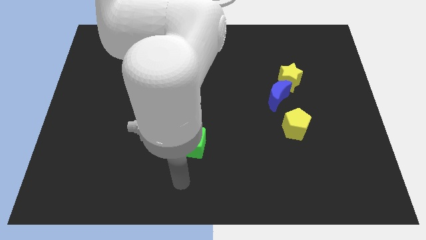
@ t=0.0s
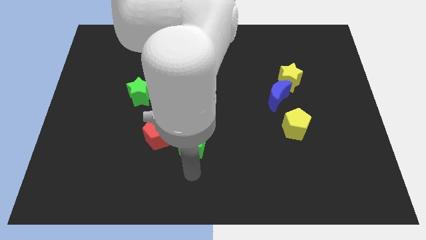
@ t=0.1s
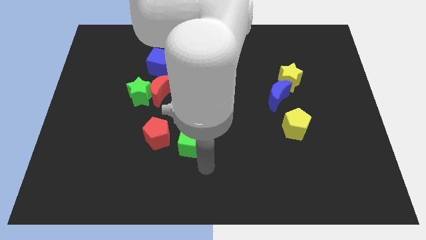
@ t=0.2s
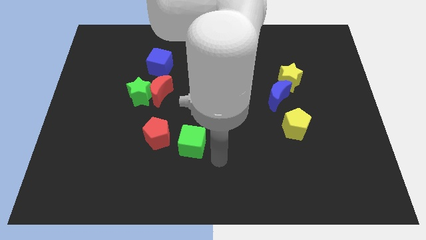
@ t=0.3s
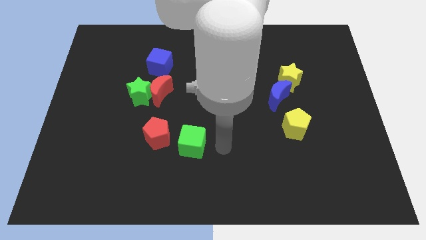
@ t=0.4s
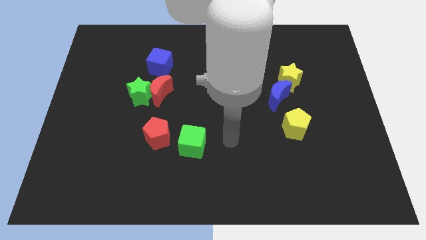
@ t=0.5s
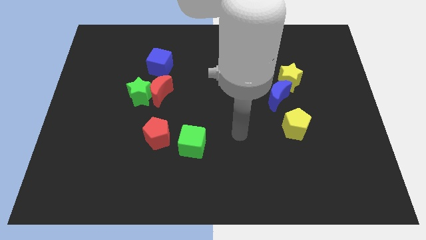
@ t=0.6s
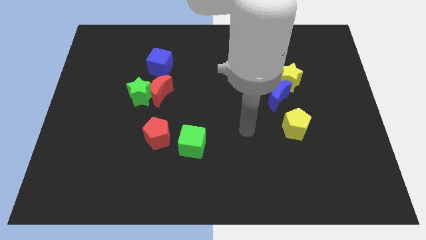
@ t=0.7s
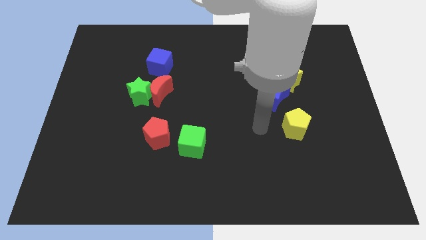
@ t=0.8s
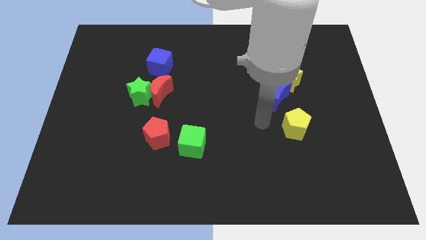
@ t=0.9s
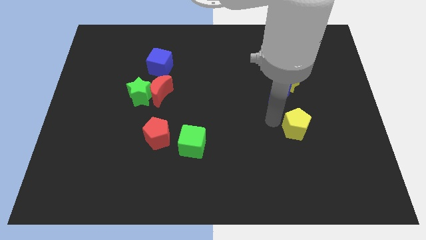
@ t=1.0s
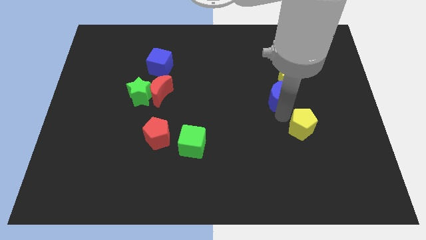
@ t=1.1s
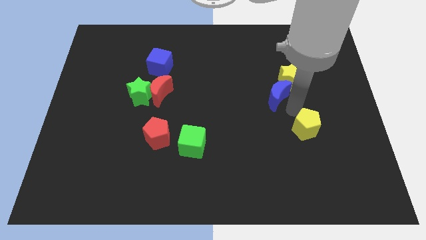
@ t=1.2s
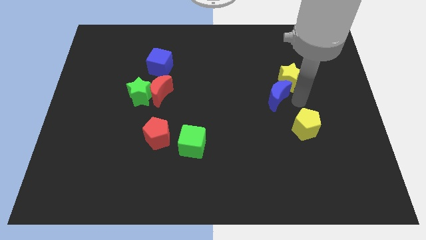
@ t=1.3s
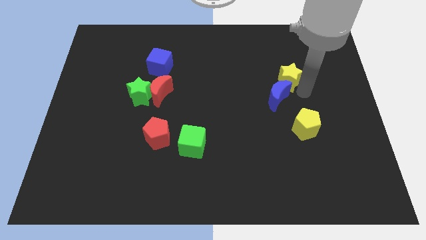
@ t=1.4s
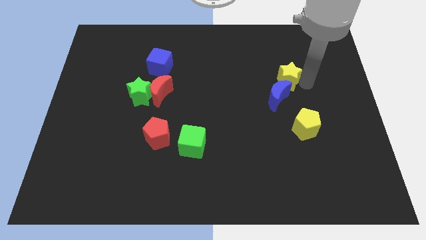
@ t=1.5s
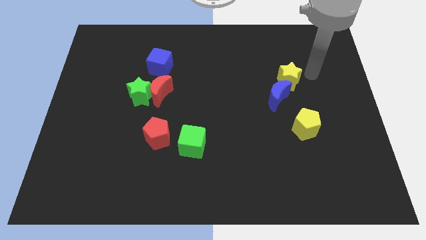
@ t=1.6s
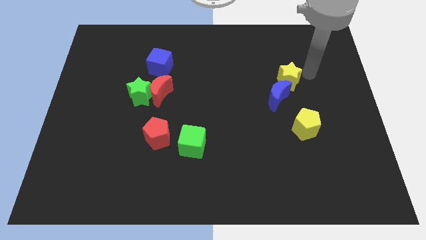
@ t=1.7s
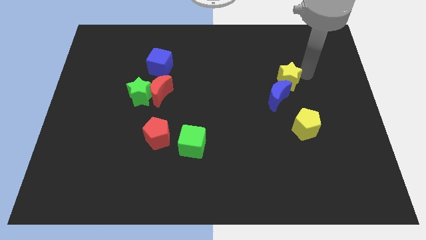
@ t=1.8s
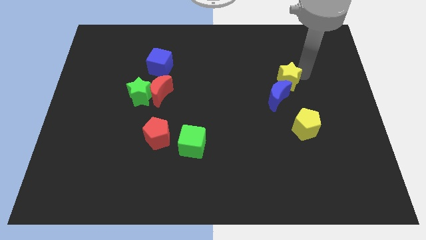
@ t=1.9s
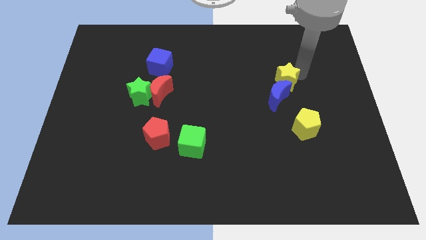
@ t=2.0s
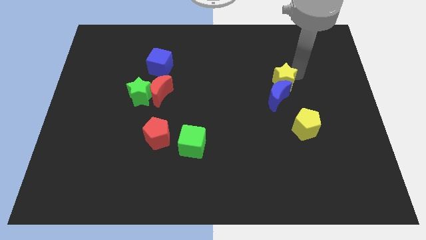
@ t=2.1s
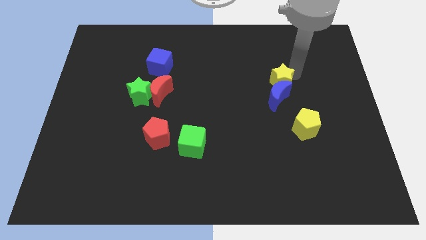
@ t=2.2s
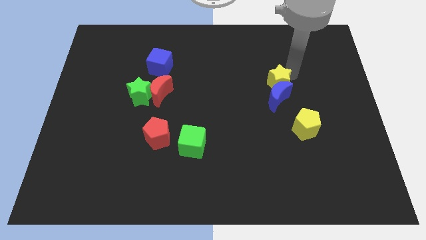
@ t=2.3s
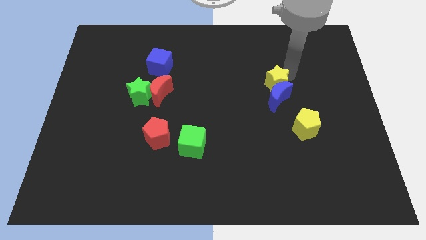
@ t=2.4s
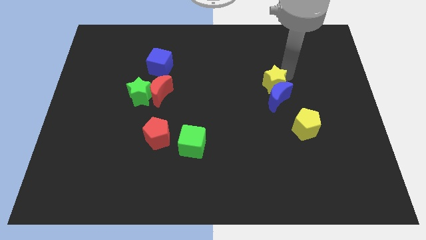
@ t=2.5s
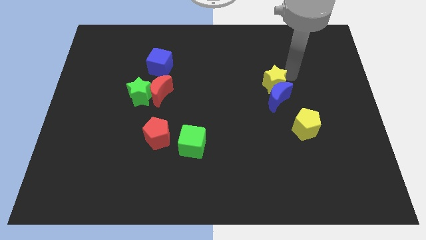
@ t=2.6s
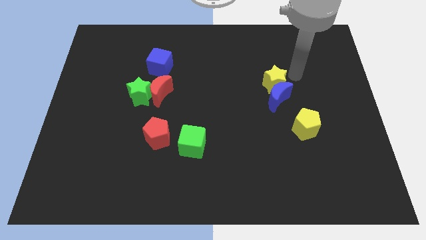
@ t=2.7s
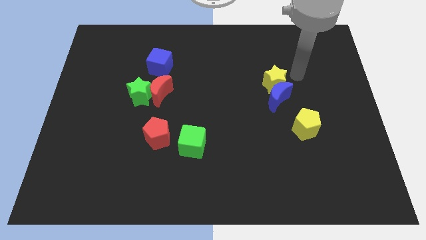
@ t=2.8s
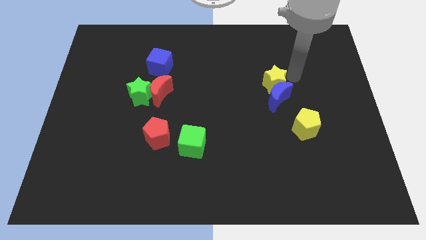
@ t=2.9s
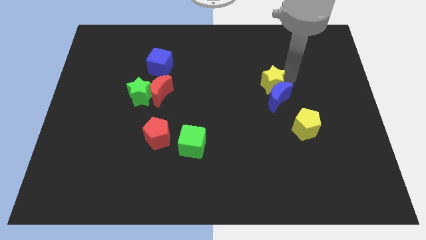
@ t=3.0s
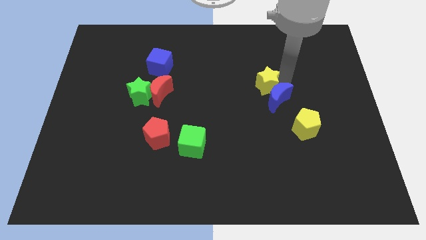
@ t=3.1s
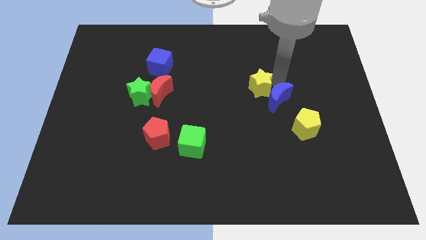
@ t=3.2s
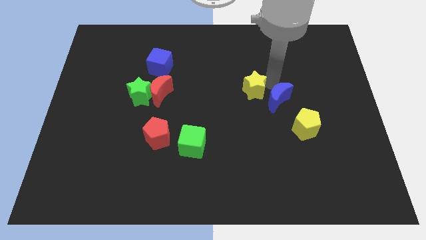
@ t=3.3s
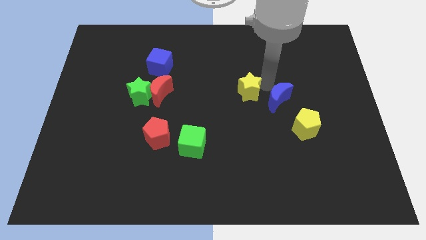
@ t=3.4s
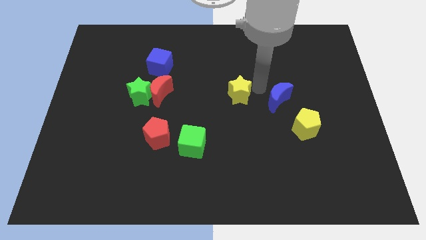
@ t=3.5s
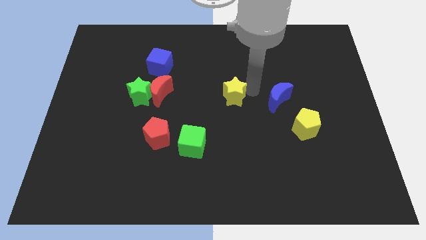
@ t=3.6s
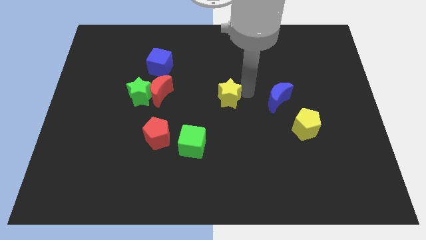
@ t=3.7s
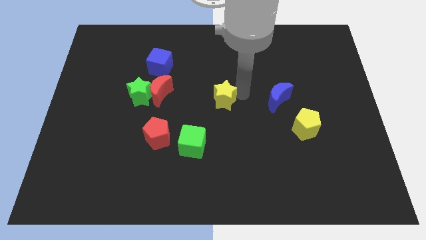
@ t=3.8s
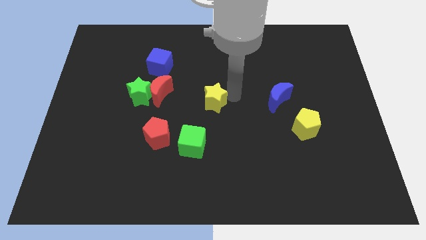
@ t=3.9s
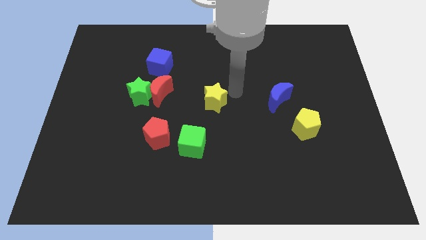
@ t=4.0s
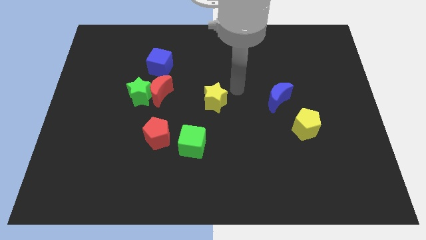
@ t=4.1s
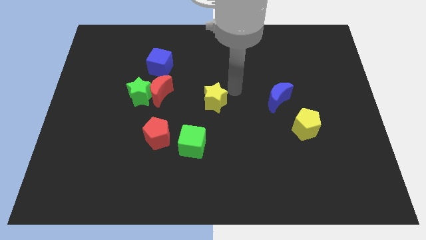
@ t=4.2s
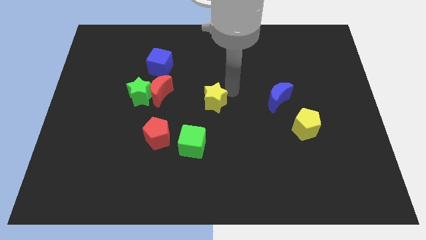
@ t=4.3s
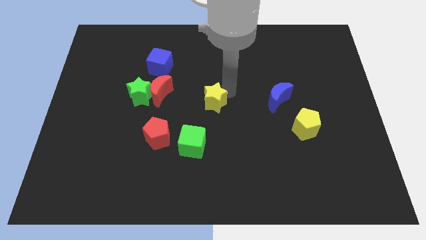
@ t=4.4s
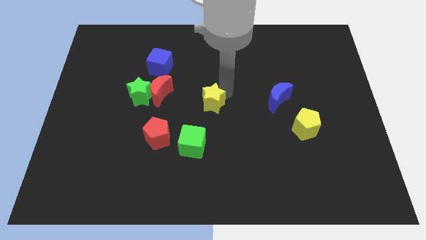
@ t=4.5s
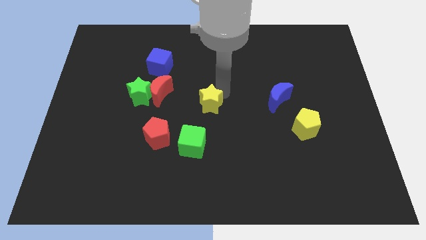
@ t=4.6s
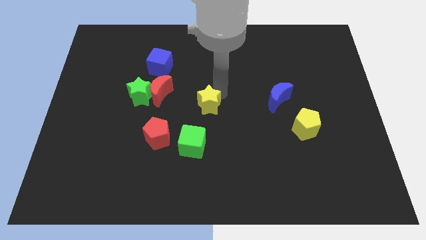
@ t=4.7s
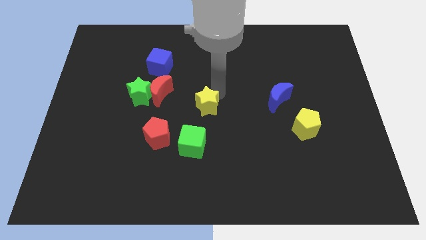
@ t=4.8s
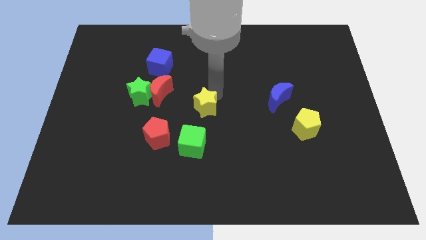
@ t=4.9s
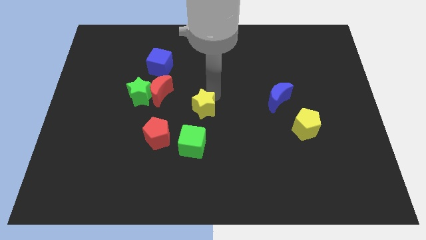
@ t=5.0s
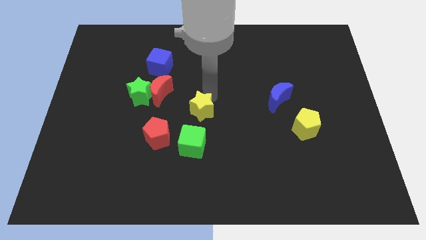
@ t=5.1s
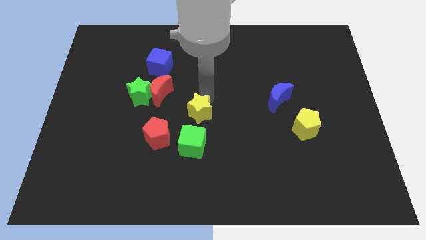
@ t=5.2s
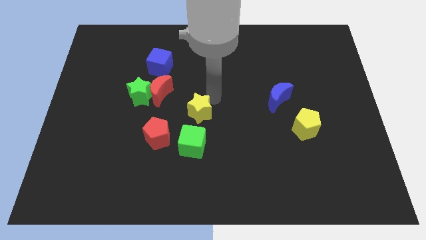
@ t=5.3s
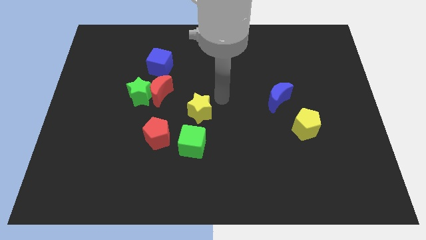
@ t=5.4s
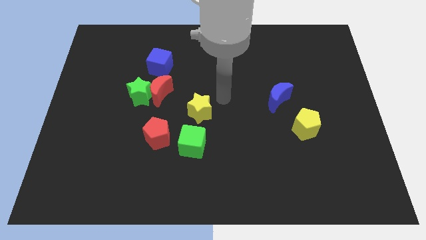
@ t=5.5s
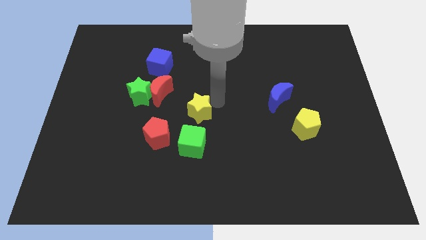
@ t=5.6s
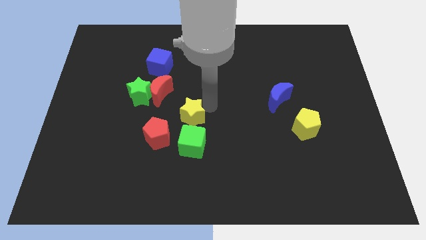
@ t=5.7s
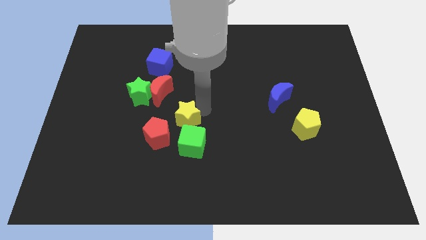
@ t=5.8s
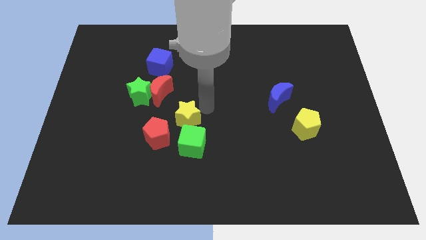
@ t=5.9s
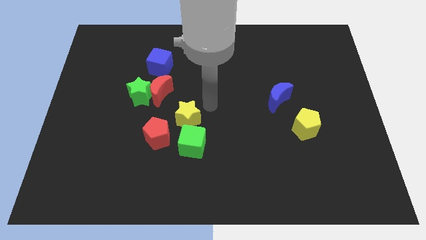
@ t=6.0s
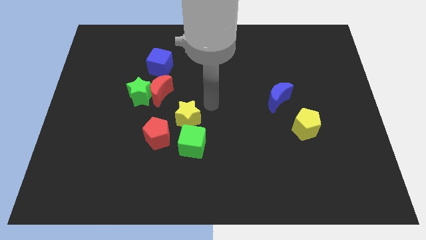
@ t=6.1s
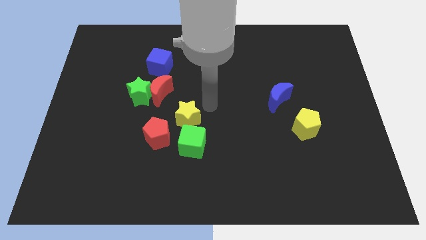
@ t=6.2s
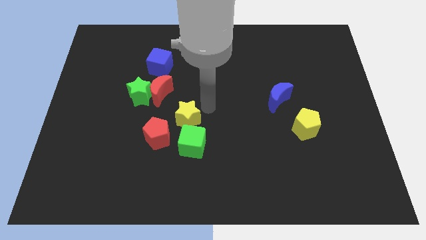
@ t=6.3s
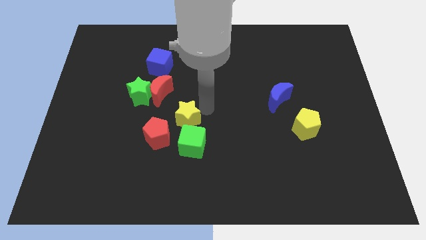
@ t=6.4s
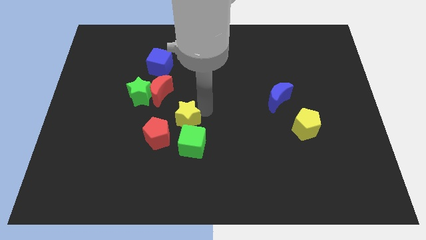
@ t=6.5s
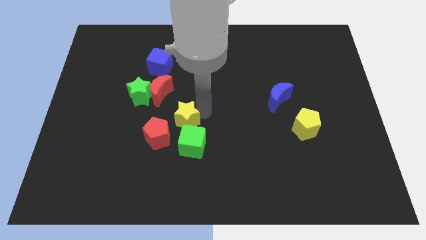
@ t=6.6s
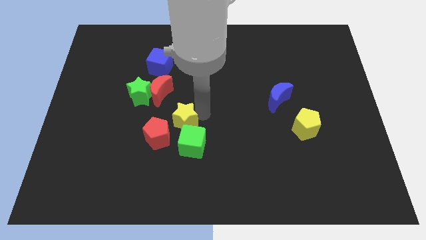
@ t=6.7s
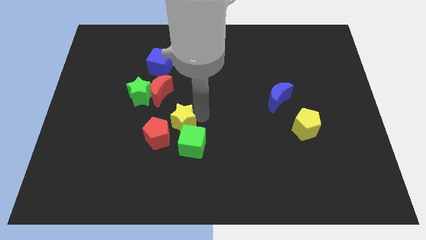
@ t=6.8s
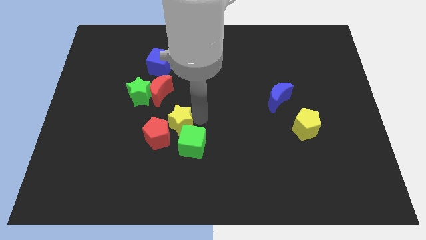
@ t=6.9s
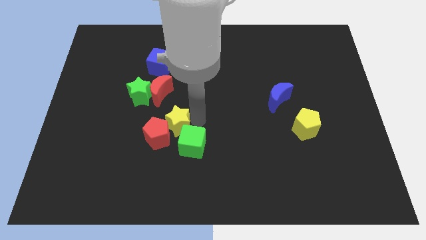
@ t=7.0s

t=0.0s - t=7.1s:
slide the yellow star next to the red pentagon
